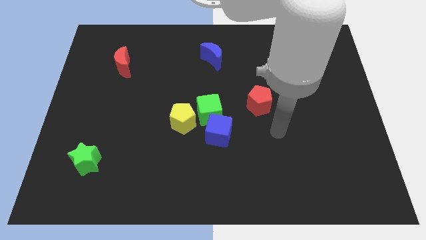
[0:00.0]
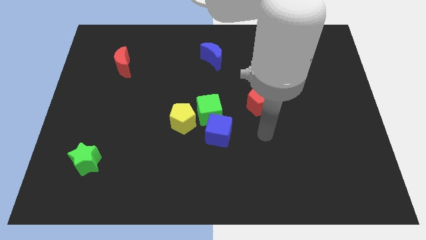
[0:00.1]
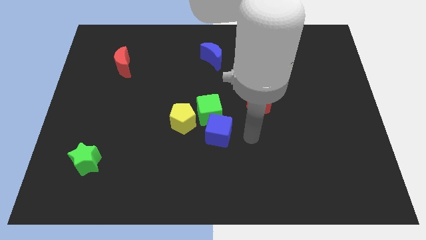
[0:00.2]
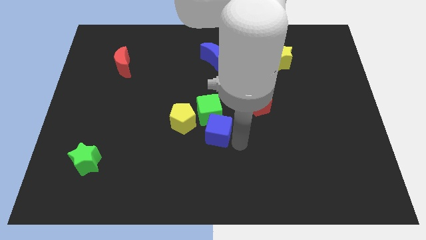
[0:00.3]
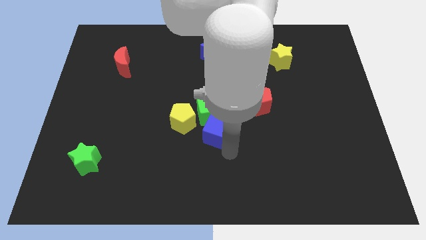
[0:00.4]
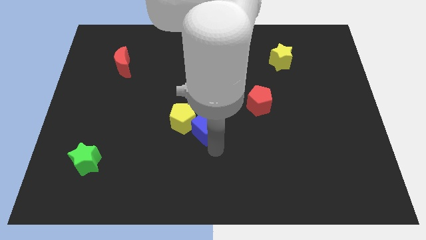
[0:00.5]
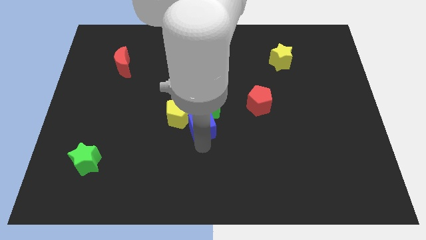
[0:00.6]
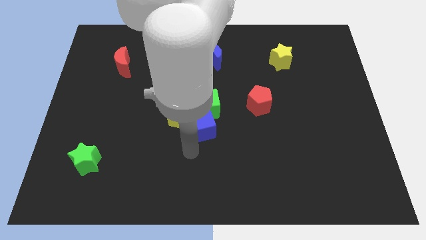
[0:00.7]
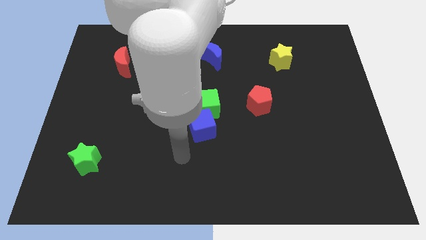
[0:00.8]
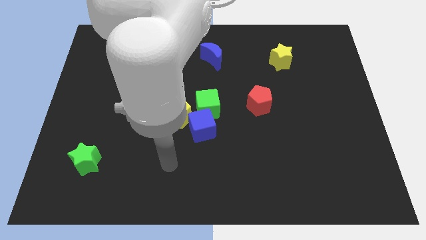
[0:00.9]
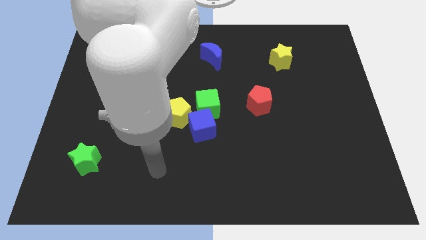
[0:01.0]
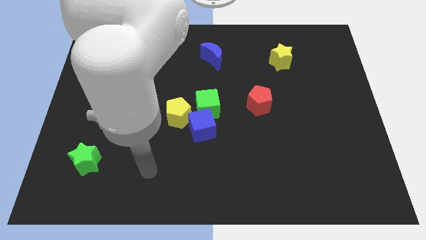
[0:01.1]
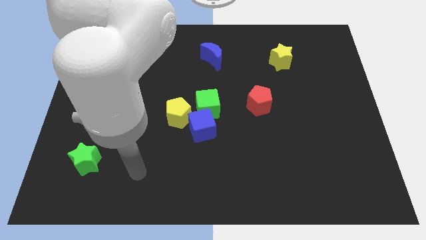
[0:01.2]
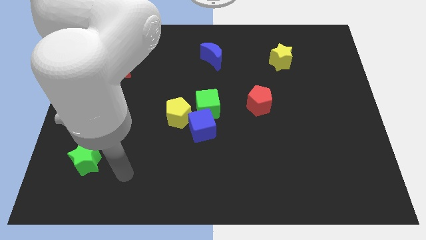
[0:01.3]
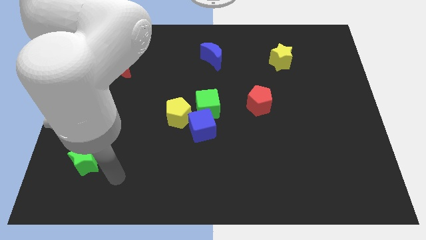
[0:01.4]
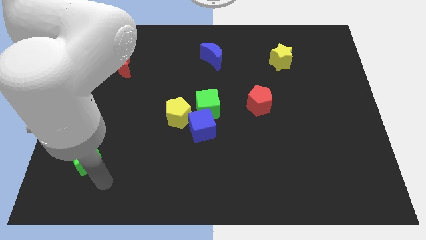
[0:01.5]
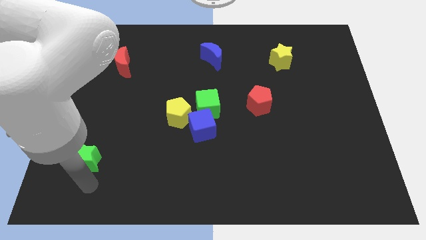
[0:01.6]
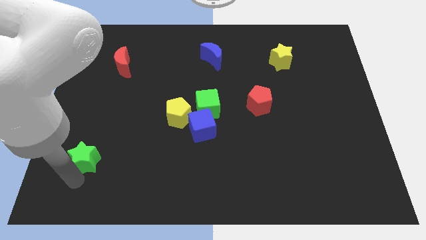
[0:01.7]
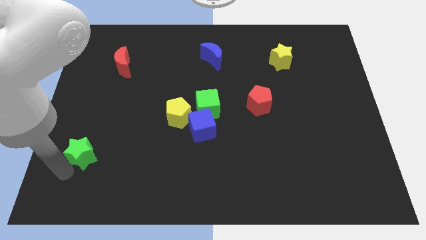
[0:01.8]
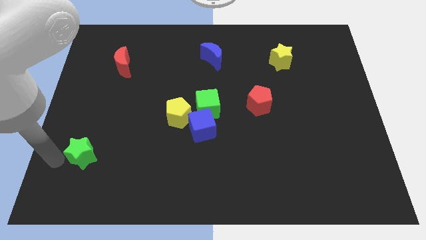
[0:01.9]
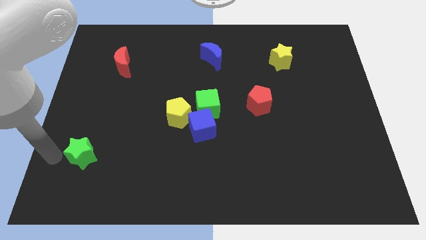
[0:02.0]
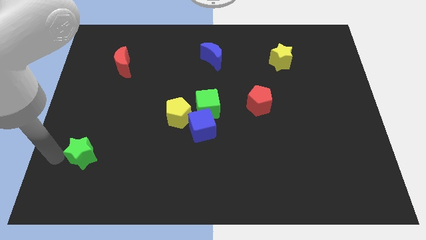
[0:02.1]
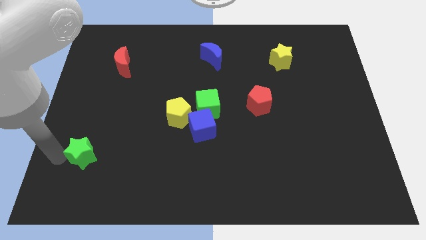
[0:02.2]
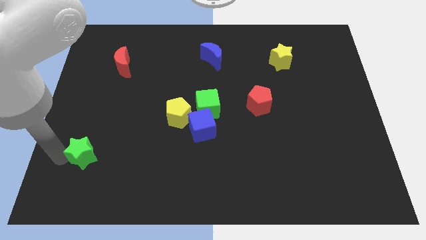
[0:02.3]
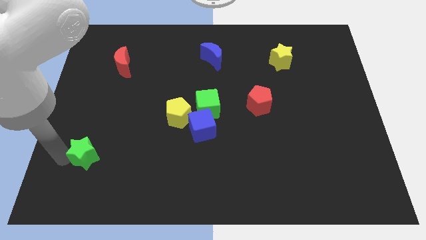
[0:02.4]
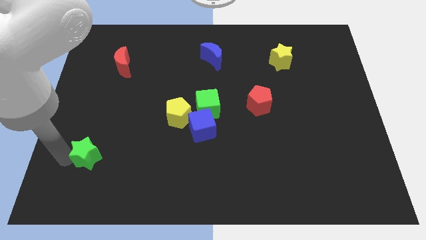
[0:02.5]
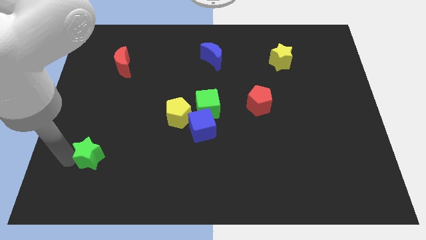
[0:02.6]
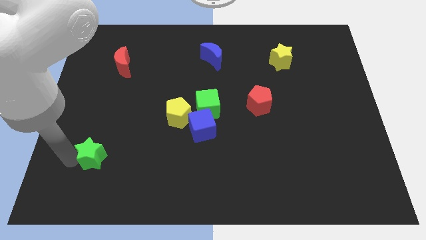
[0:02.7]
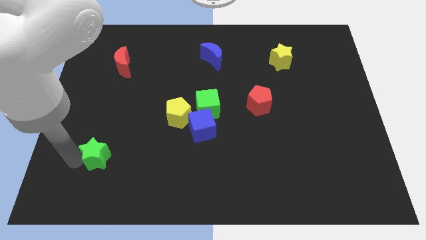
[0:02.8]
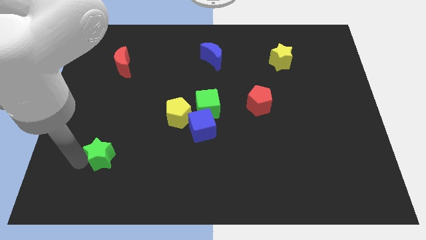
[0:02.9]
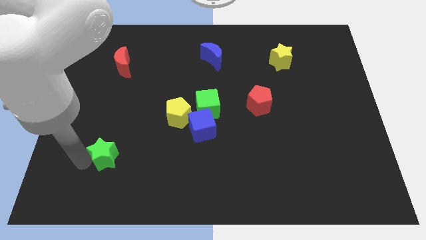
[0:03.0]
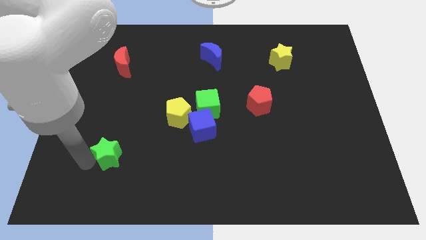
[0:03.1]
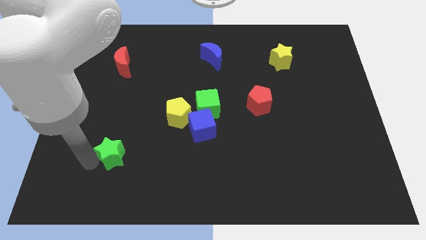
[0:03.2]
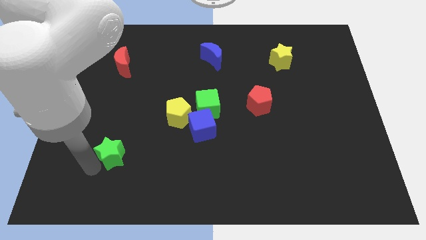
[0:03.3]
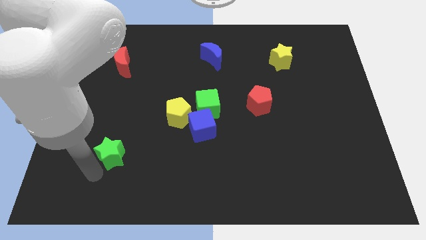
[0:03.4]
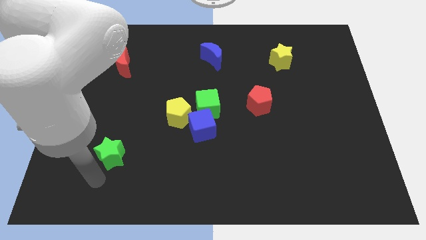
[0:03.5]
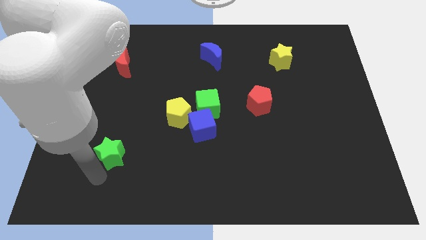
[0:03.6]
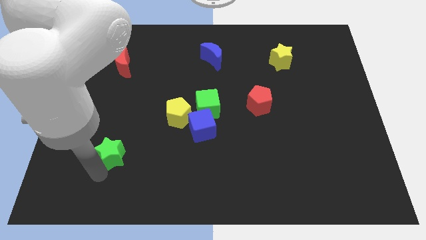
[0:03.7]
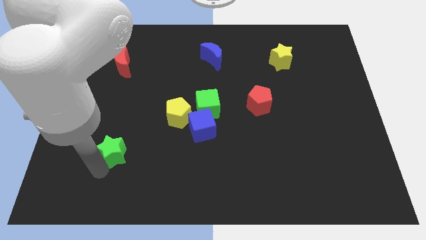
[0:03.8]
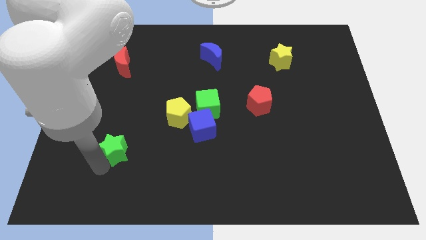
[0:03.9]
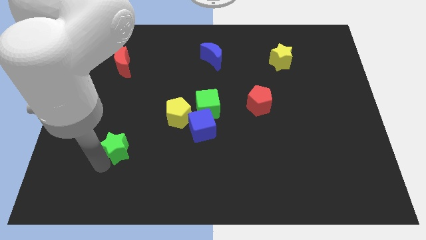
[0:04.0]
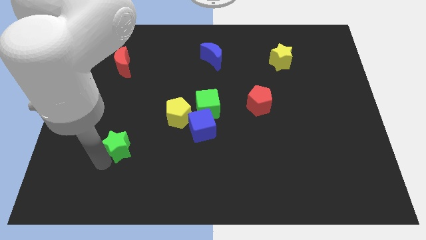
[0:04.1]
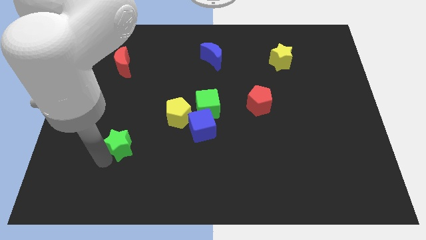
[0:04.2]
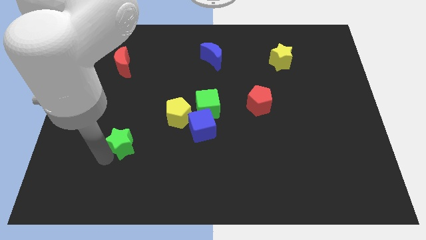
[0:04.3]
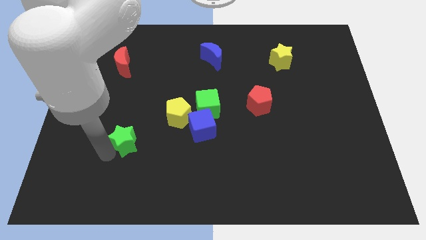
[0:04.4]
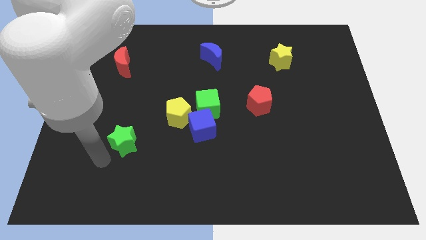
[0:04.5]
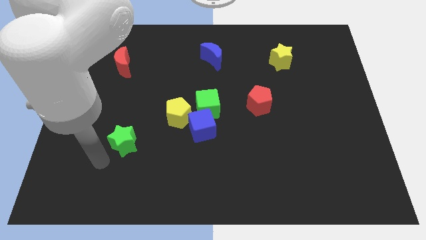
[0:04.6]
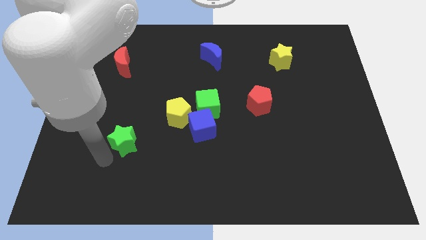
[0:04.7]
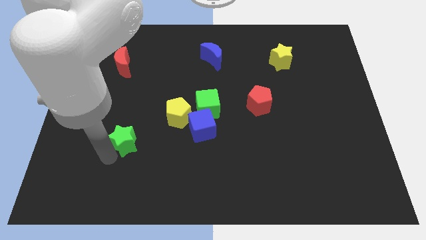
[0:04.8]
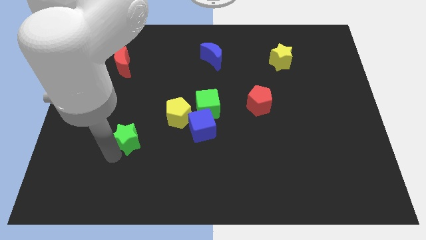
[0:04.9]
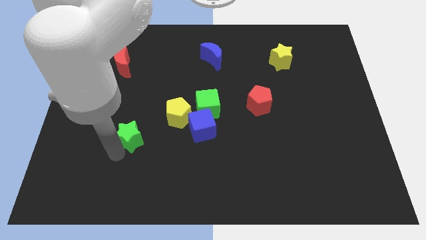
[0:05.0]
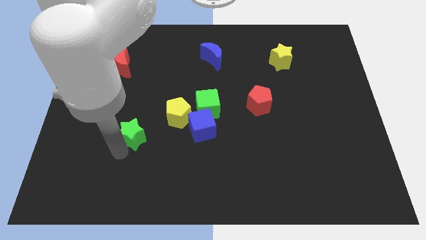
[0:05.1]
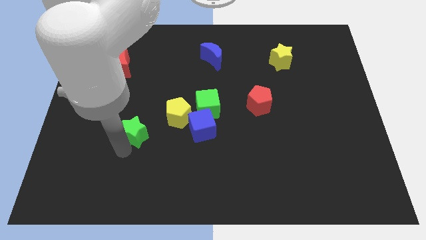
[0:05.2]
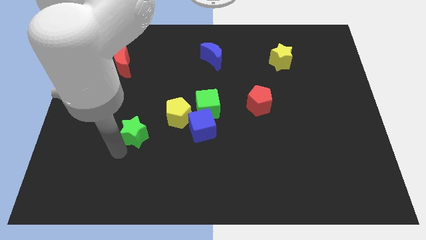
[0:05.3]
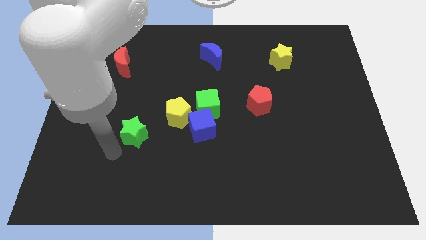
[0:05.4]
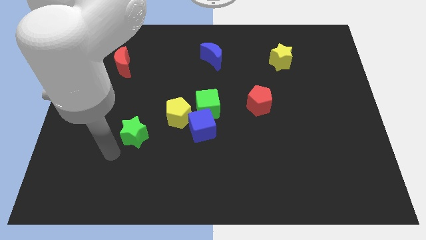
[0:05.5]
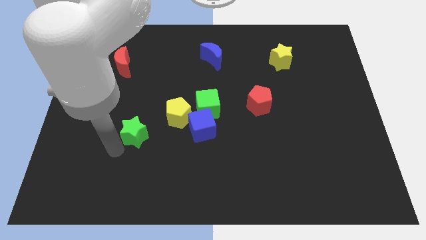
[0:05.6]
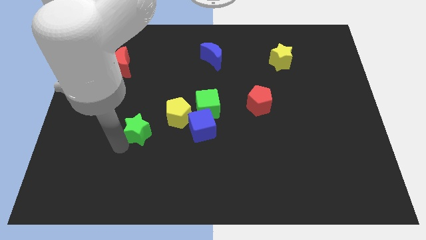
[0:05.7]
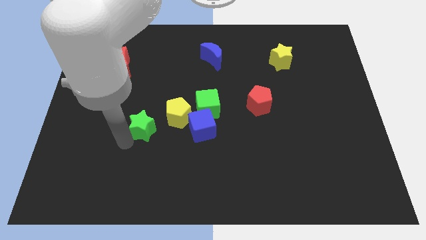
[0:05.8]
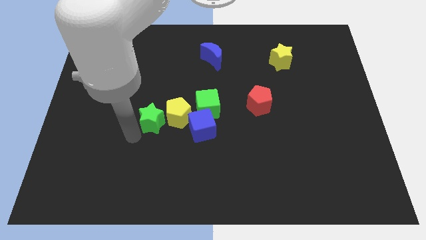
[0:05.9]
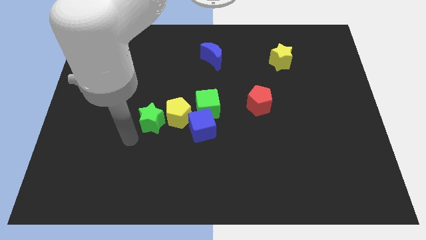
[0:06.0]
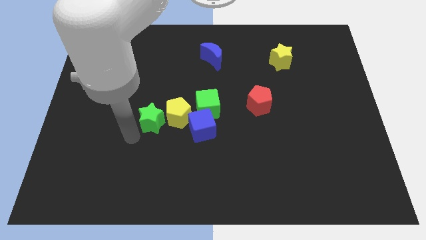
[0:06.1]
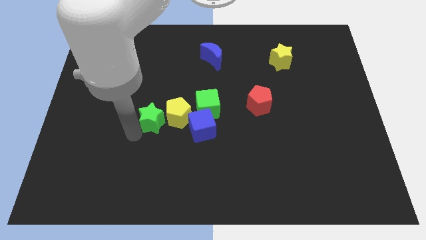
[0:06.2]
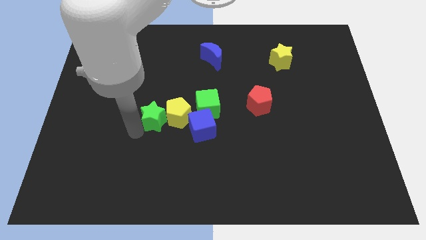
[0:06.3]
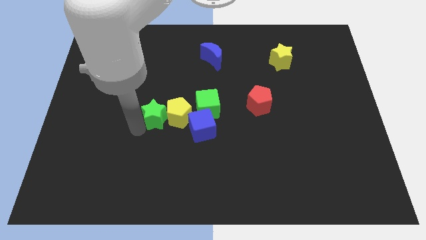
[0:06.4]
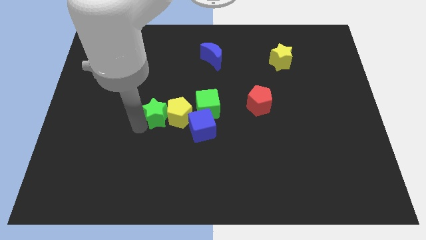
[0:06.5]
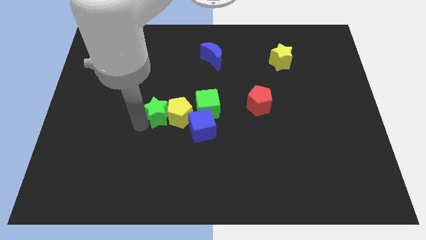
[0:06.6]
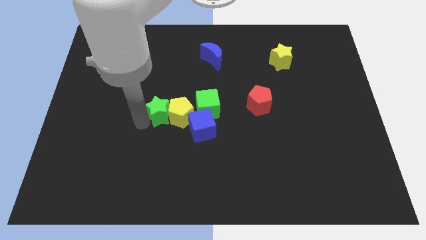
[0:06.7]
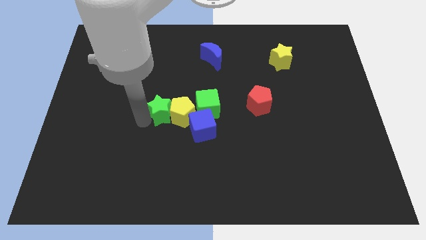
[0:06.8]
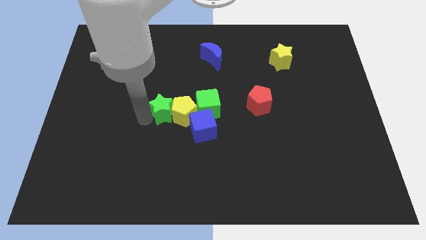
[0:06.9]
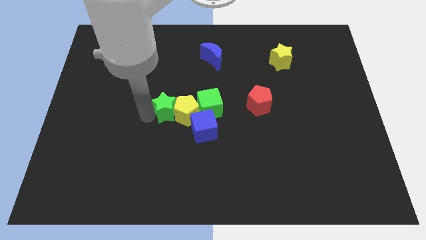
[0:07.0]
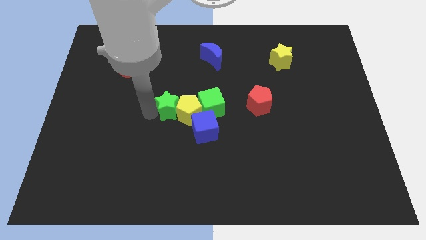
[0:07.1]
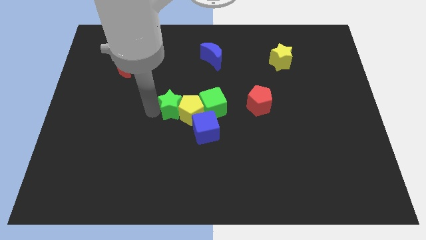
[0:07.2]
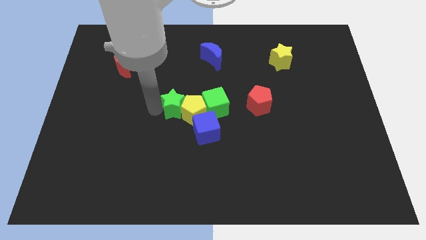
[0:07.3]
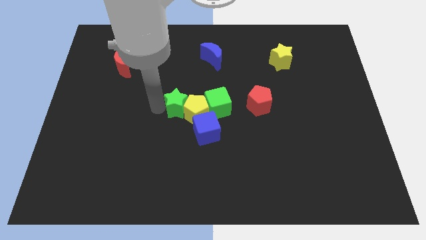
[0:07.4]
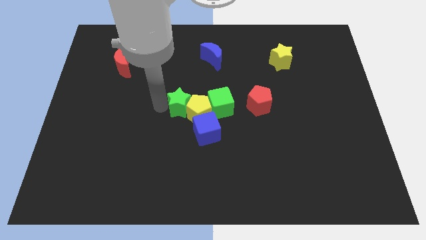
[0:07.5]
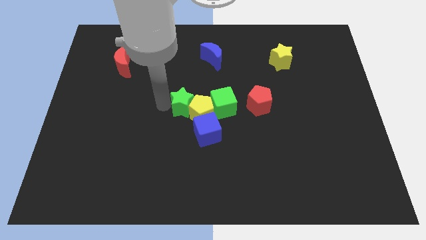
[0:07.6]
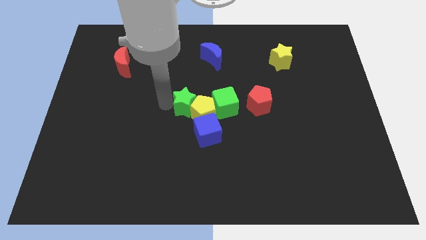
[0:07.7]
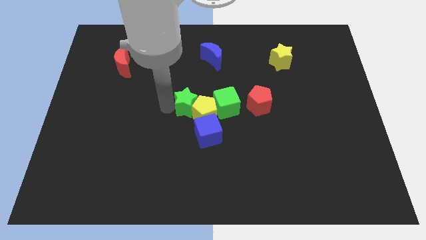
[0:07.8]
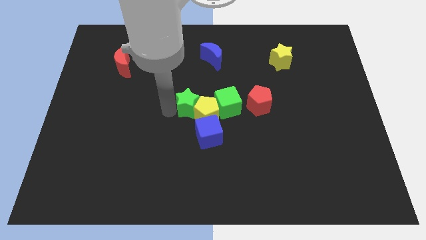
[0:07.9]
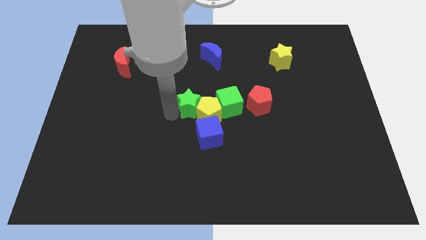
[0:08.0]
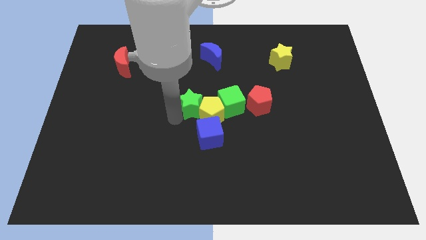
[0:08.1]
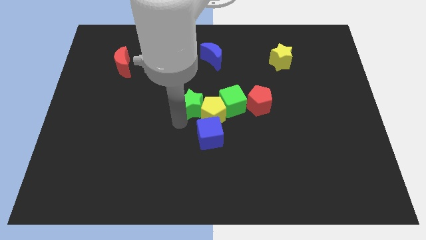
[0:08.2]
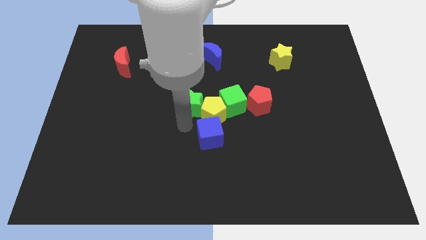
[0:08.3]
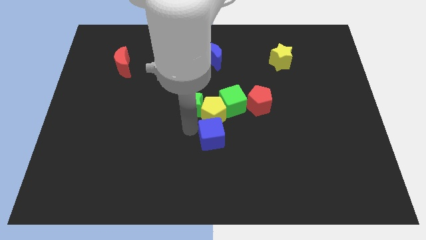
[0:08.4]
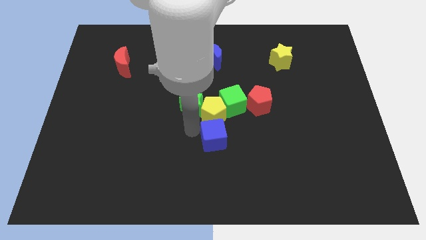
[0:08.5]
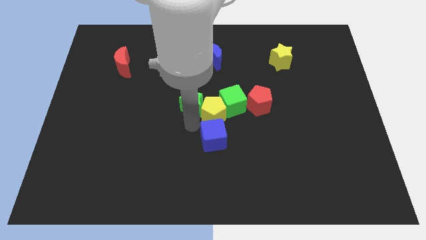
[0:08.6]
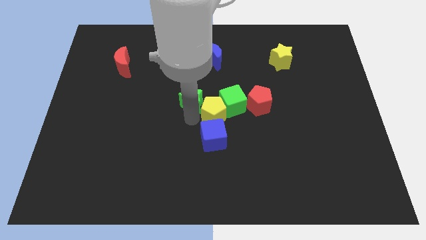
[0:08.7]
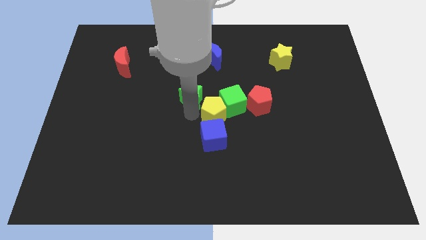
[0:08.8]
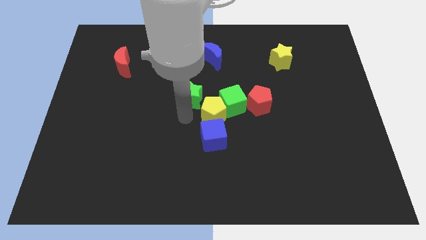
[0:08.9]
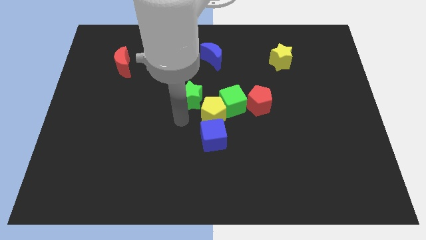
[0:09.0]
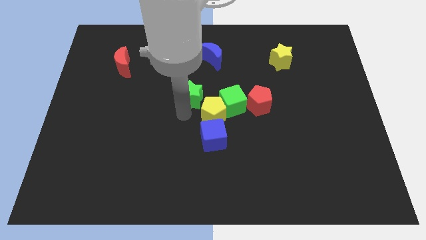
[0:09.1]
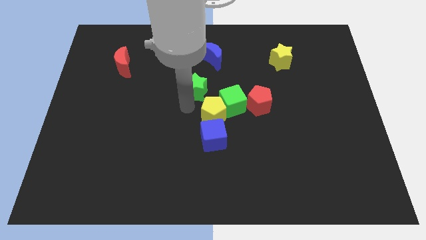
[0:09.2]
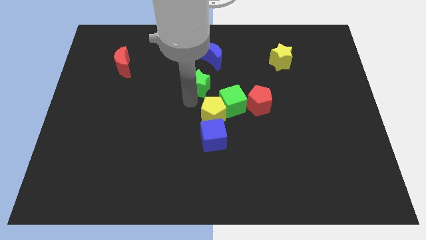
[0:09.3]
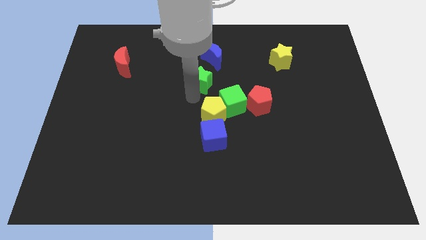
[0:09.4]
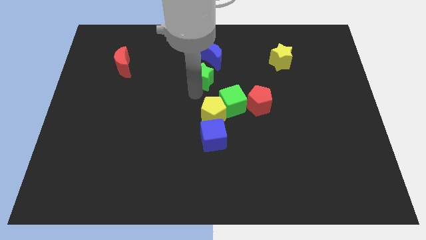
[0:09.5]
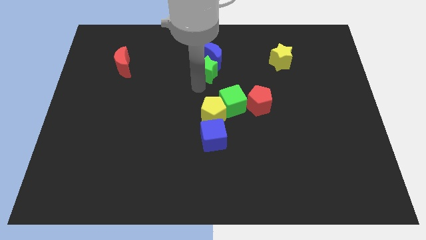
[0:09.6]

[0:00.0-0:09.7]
move the green star close to the blue moon
